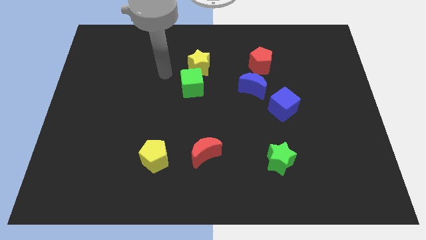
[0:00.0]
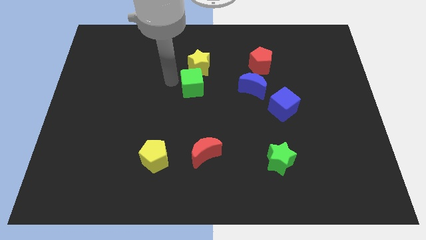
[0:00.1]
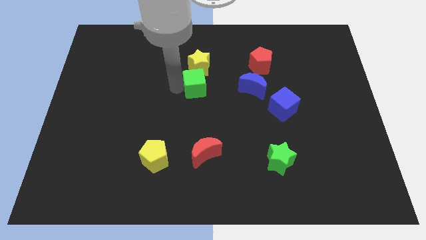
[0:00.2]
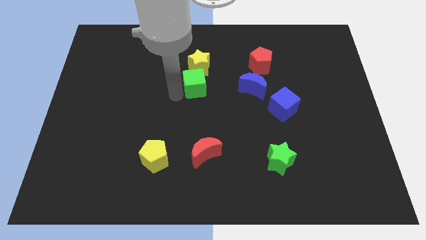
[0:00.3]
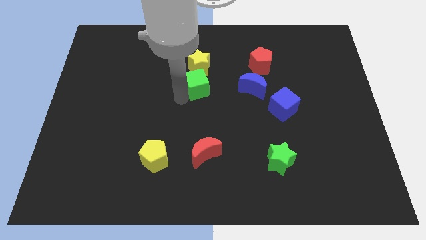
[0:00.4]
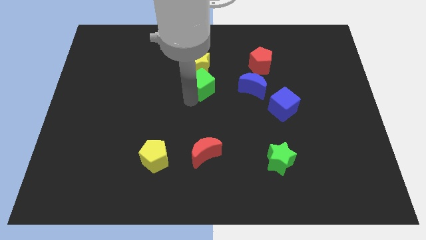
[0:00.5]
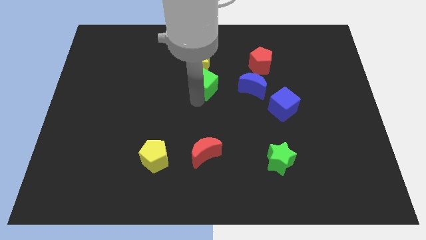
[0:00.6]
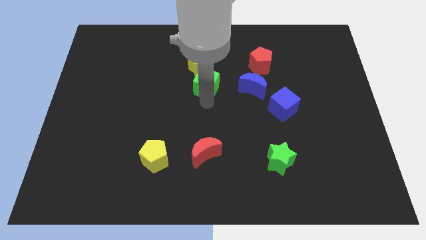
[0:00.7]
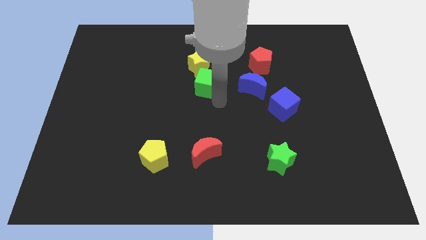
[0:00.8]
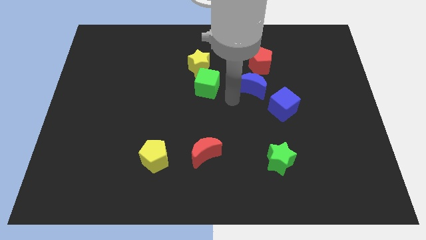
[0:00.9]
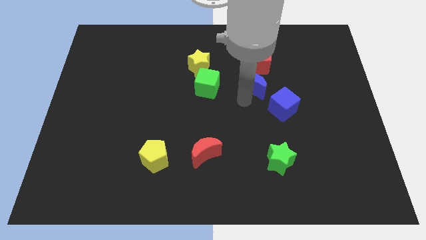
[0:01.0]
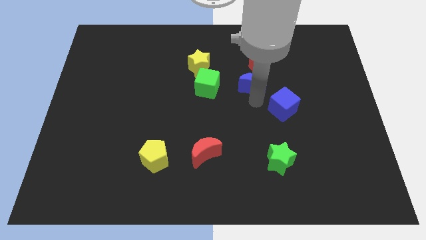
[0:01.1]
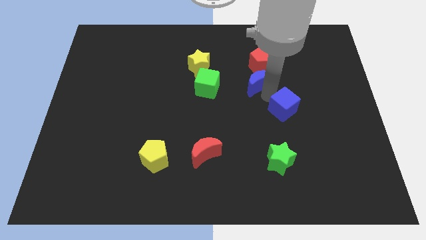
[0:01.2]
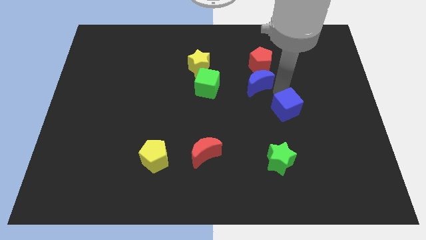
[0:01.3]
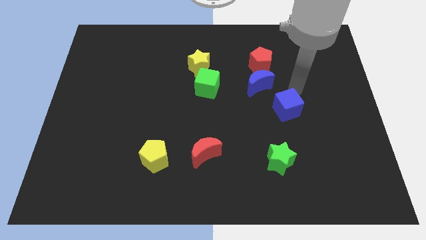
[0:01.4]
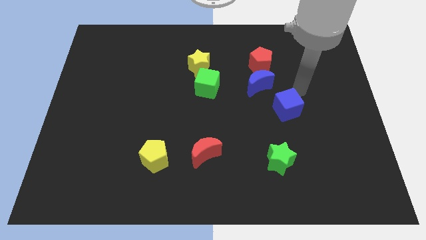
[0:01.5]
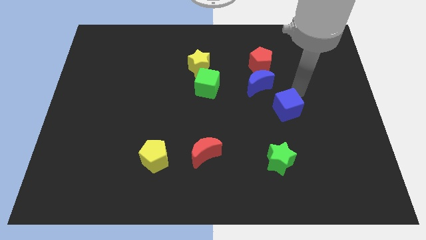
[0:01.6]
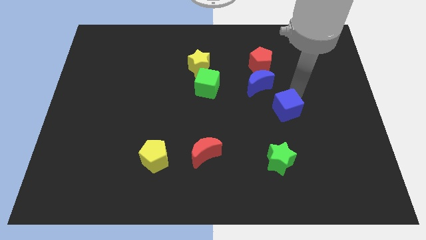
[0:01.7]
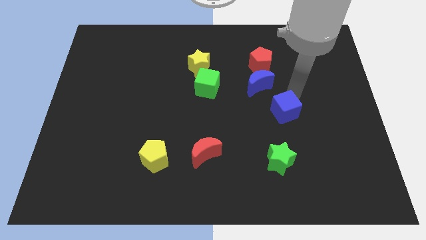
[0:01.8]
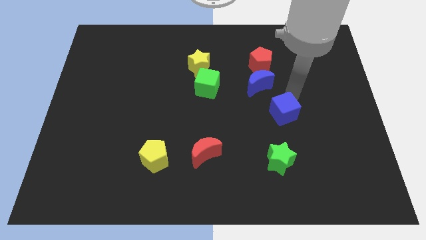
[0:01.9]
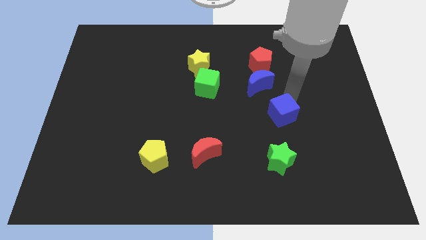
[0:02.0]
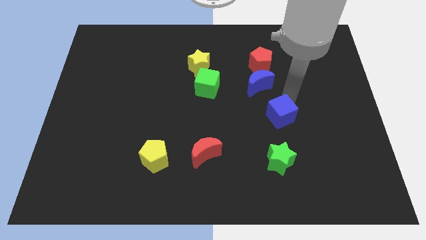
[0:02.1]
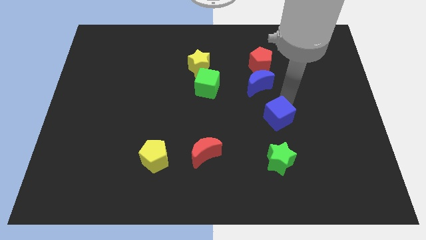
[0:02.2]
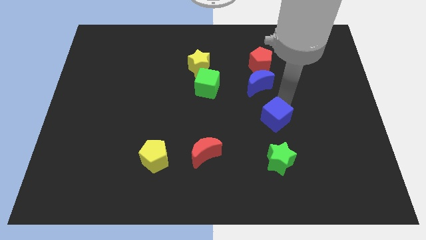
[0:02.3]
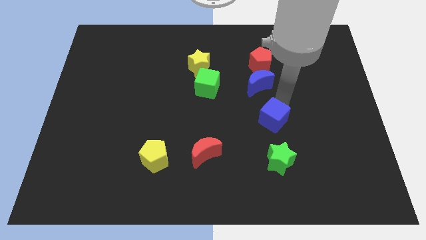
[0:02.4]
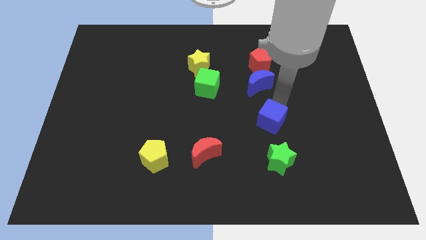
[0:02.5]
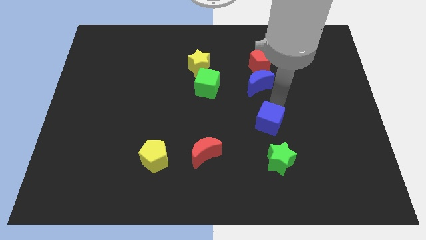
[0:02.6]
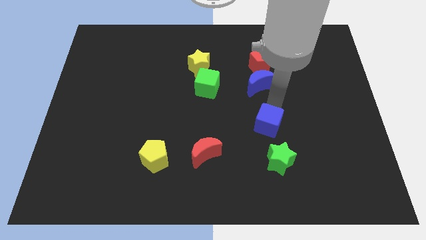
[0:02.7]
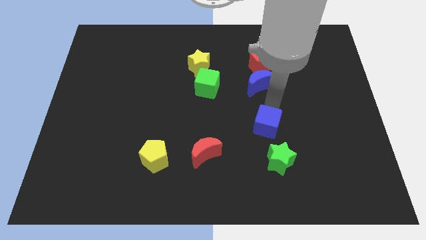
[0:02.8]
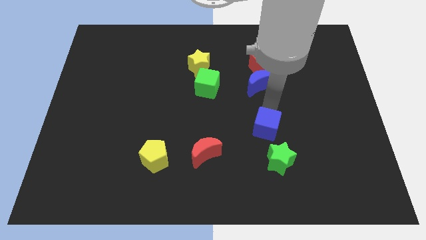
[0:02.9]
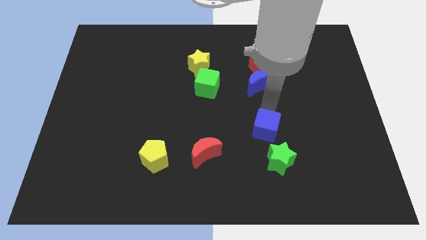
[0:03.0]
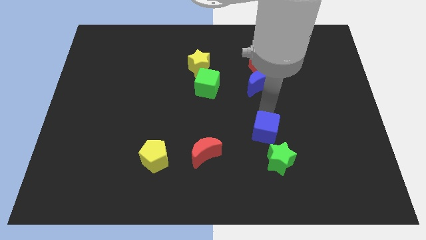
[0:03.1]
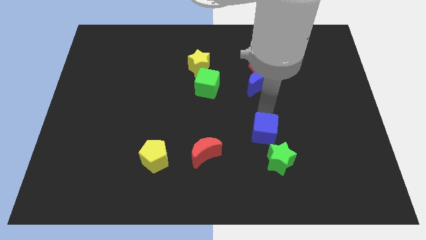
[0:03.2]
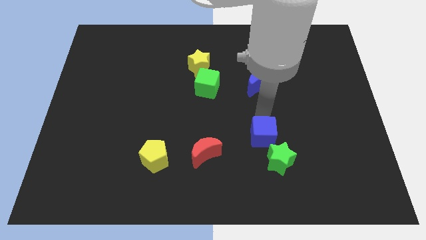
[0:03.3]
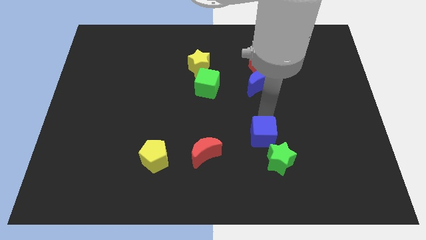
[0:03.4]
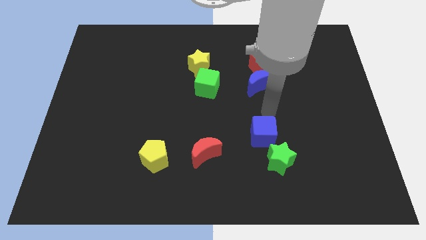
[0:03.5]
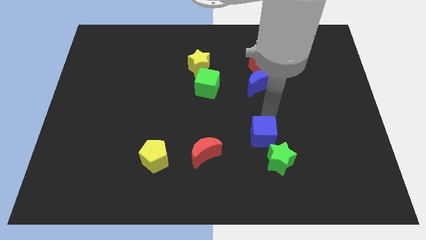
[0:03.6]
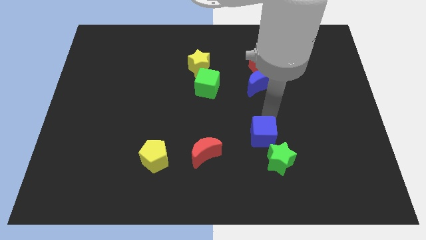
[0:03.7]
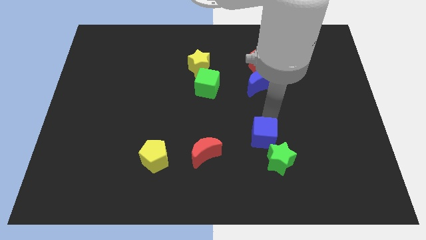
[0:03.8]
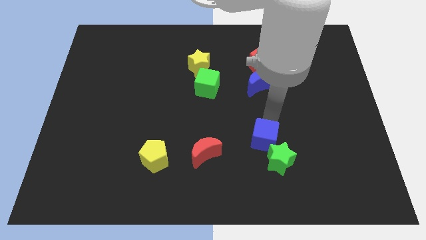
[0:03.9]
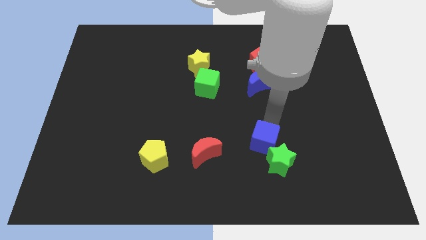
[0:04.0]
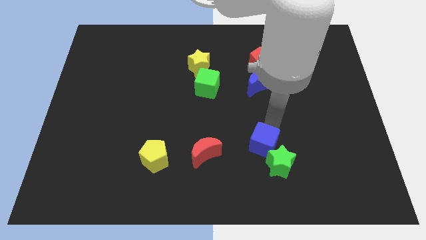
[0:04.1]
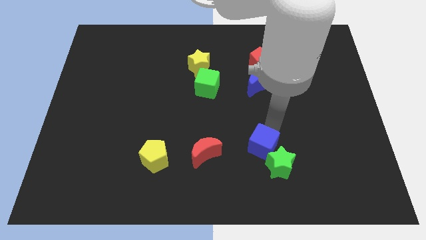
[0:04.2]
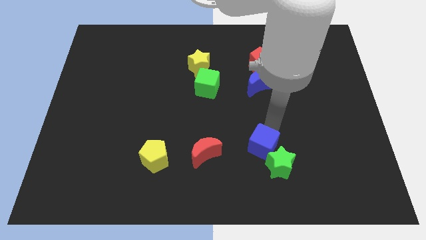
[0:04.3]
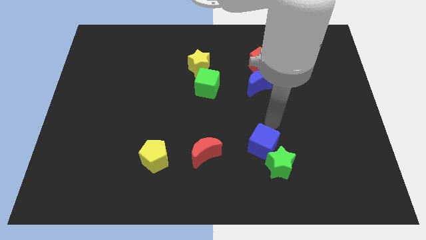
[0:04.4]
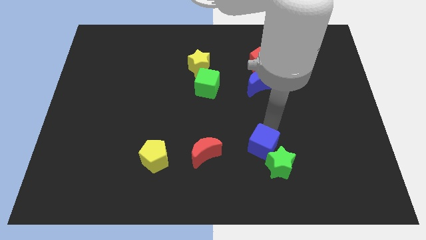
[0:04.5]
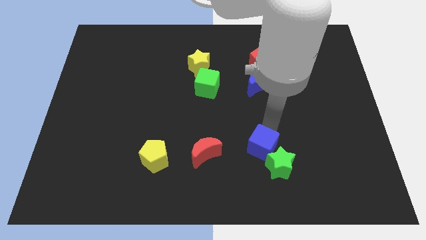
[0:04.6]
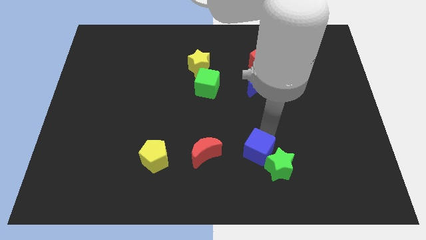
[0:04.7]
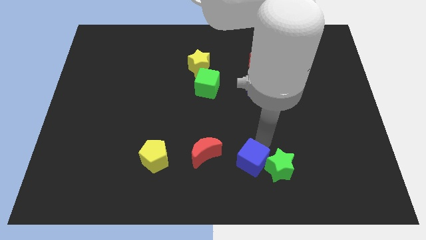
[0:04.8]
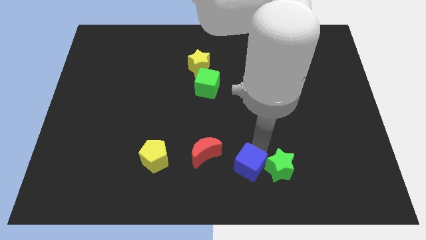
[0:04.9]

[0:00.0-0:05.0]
put the blue cube to the bottom side

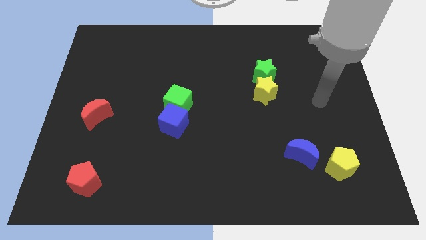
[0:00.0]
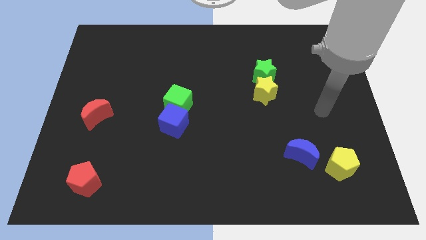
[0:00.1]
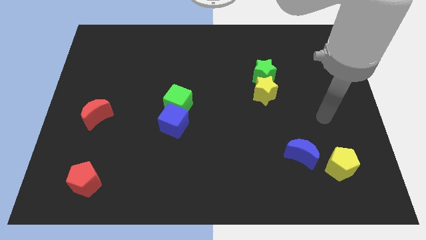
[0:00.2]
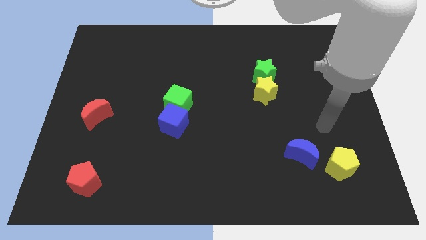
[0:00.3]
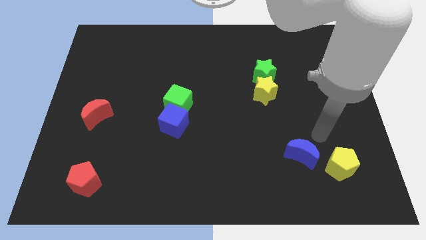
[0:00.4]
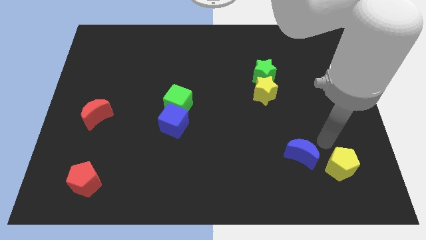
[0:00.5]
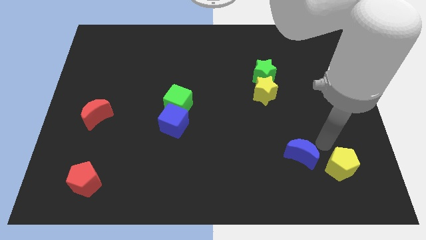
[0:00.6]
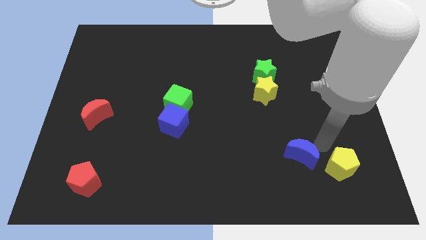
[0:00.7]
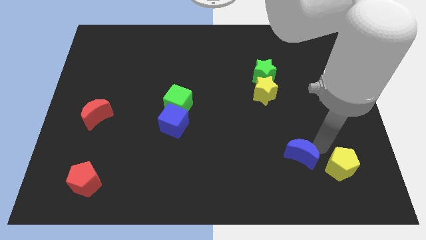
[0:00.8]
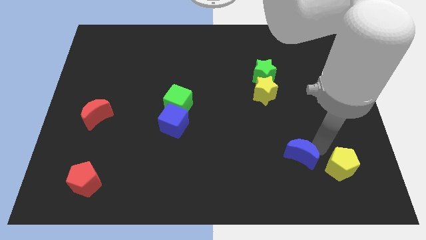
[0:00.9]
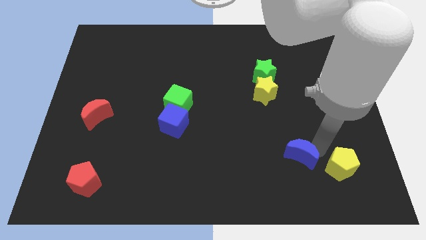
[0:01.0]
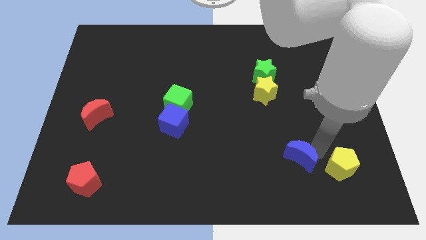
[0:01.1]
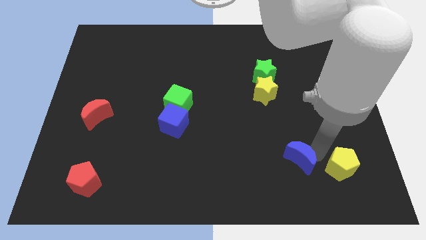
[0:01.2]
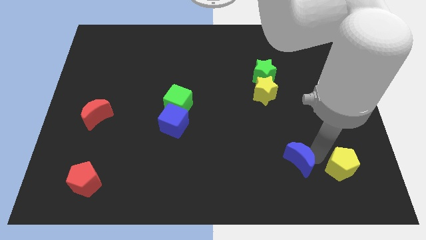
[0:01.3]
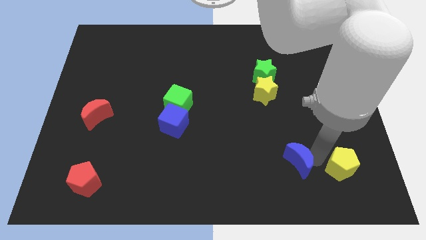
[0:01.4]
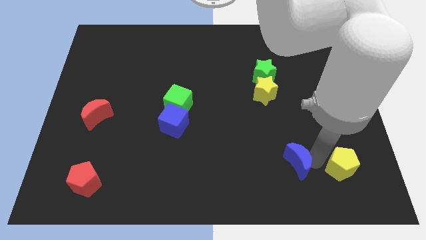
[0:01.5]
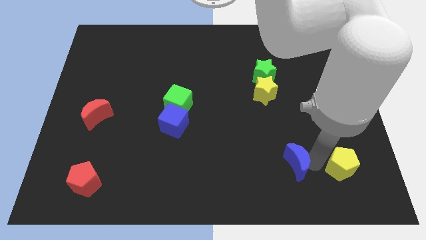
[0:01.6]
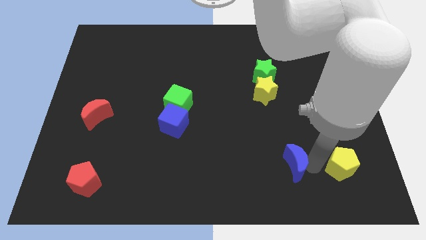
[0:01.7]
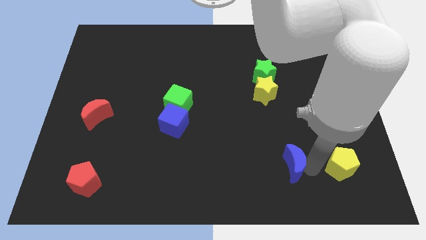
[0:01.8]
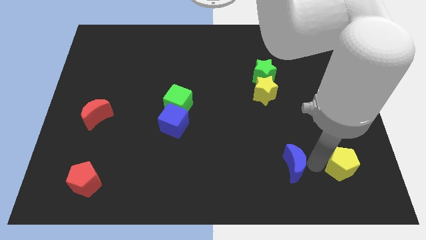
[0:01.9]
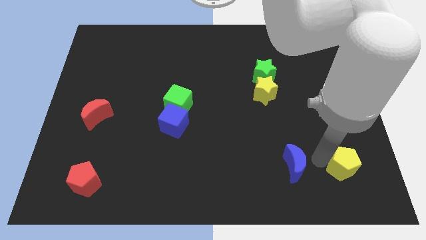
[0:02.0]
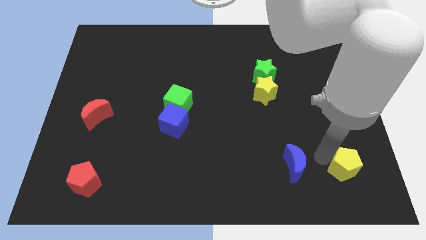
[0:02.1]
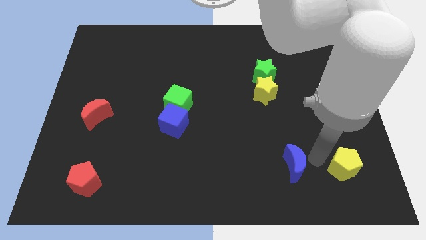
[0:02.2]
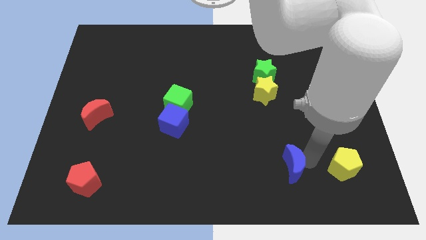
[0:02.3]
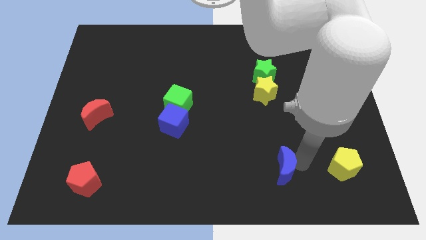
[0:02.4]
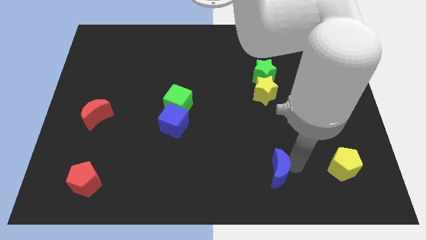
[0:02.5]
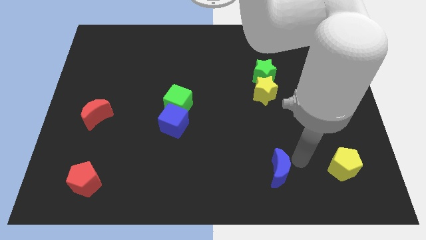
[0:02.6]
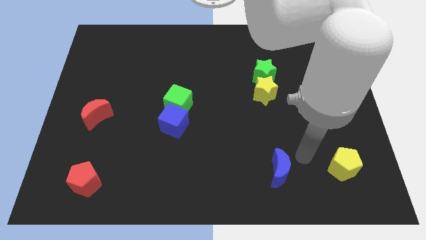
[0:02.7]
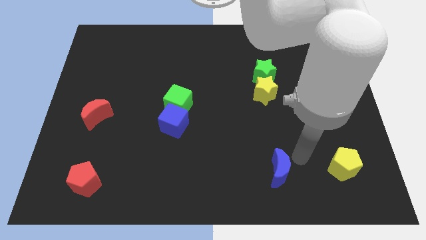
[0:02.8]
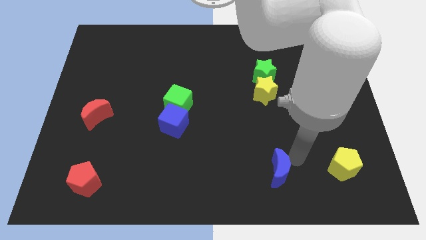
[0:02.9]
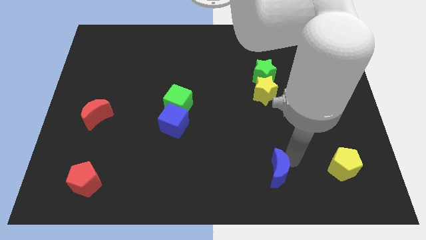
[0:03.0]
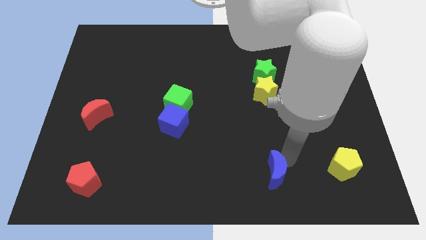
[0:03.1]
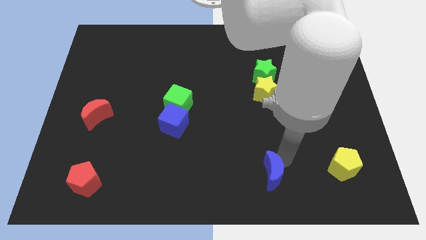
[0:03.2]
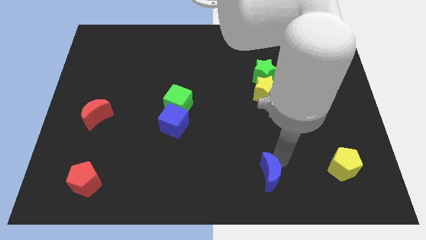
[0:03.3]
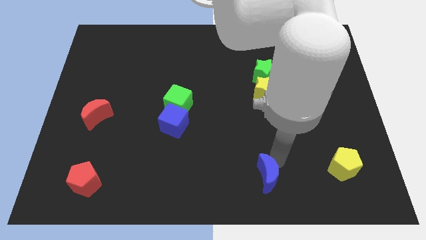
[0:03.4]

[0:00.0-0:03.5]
push the blue moon to the bottom
